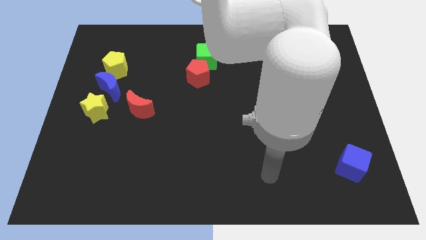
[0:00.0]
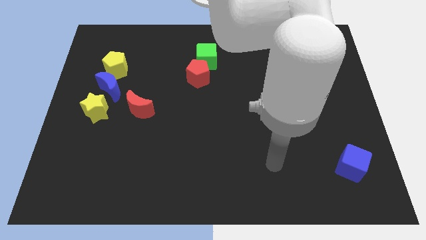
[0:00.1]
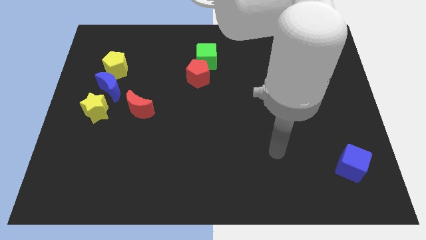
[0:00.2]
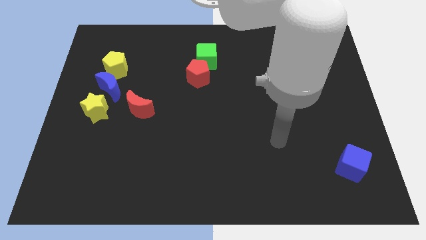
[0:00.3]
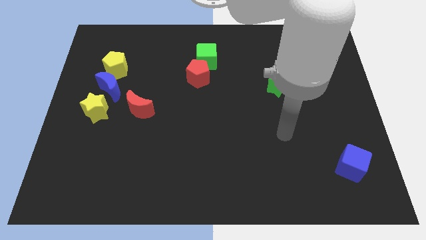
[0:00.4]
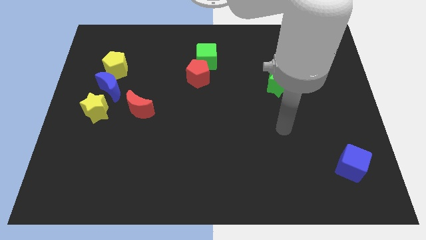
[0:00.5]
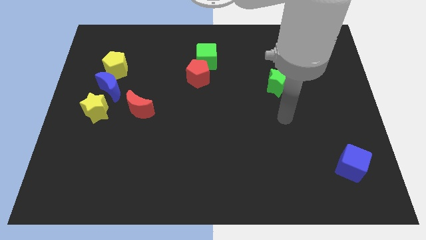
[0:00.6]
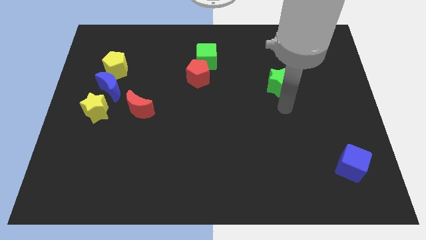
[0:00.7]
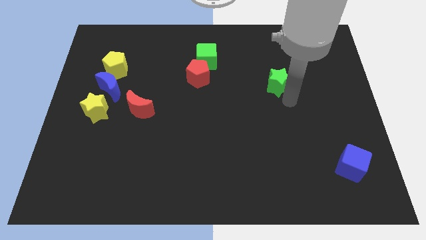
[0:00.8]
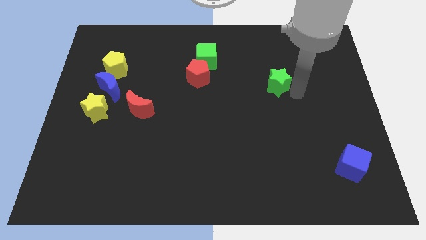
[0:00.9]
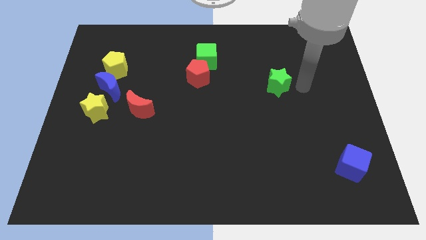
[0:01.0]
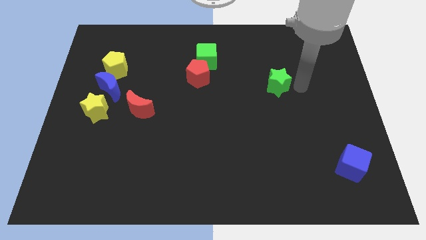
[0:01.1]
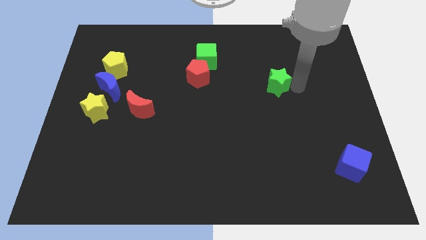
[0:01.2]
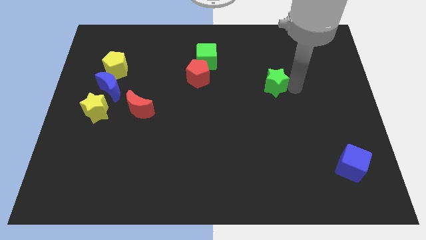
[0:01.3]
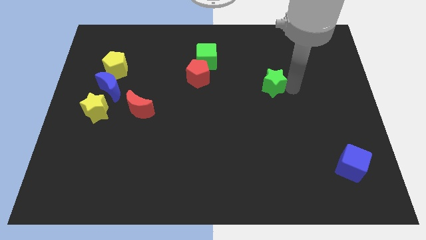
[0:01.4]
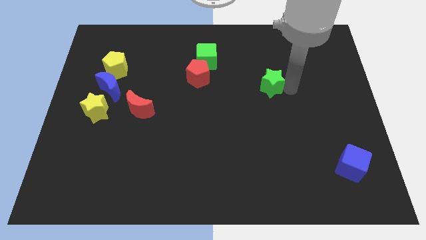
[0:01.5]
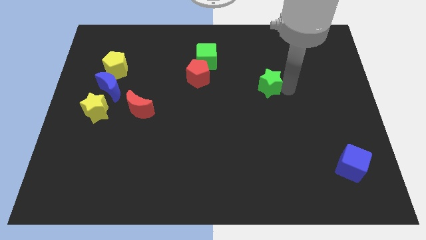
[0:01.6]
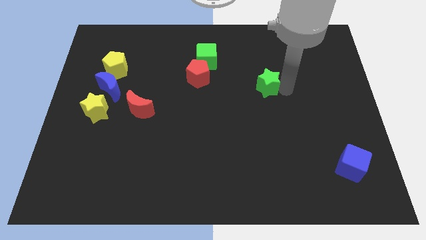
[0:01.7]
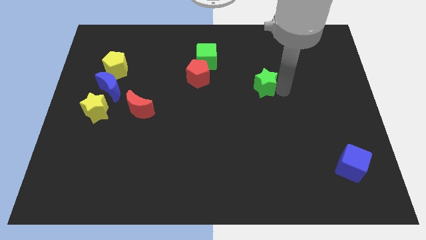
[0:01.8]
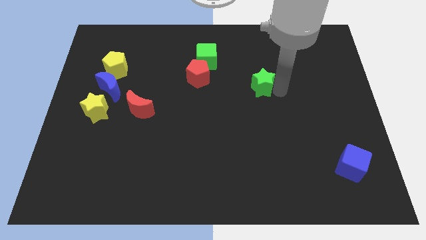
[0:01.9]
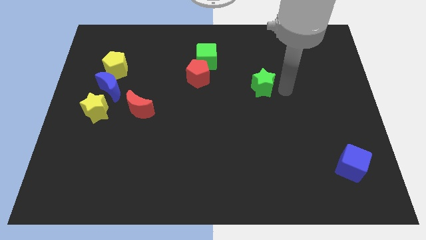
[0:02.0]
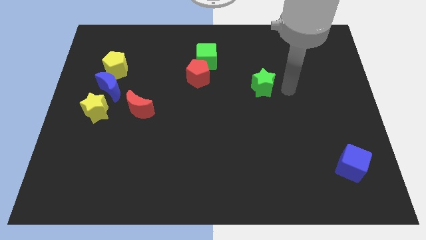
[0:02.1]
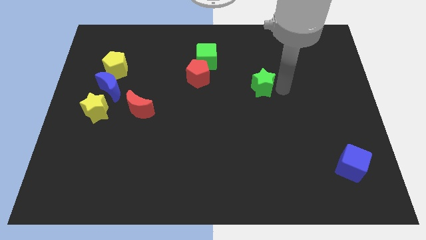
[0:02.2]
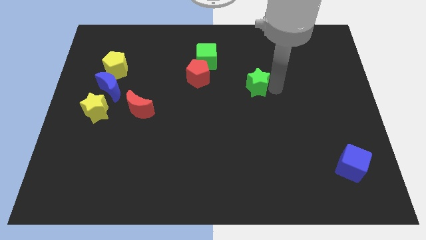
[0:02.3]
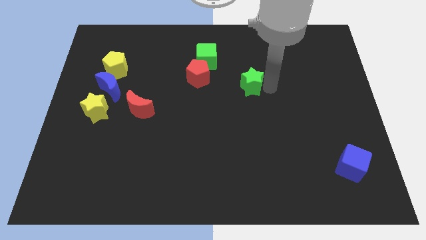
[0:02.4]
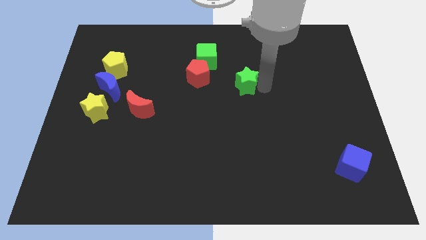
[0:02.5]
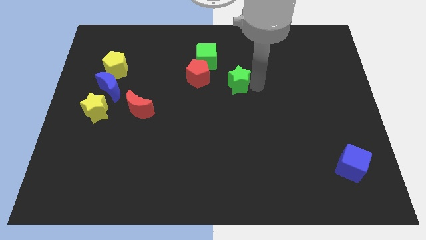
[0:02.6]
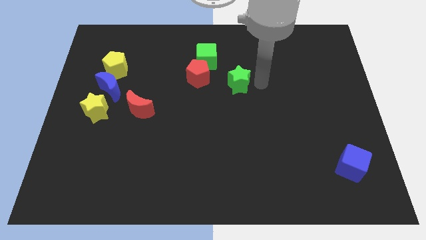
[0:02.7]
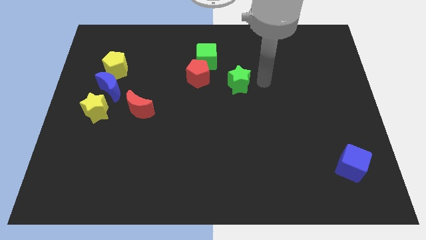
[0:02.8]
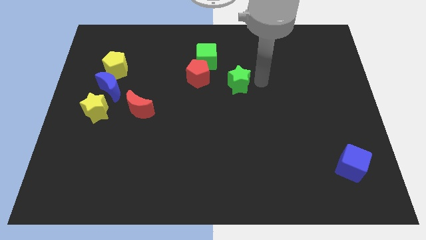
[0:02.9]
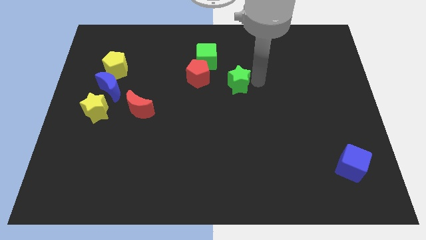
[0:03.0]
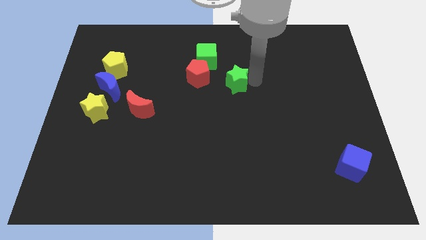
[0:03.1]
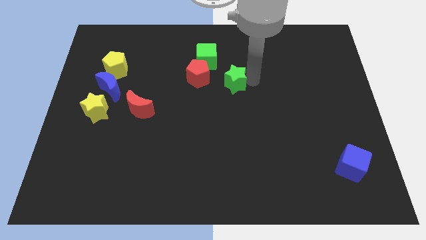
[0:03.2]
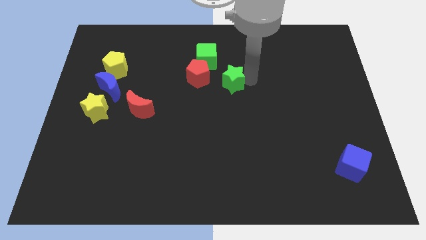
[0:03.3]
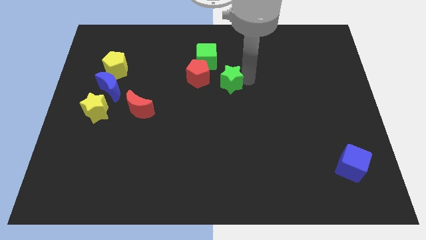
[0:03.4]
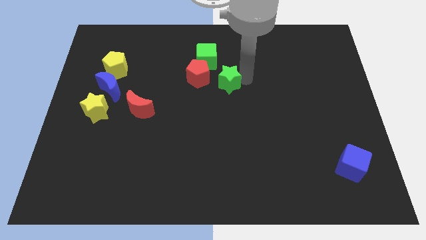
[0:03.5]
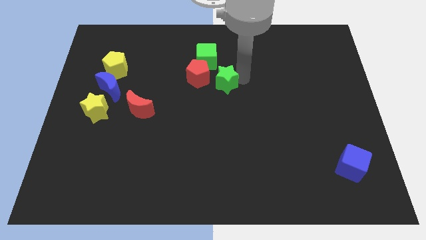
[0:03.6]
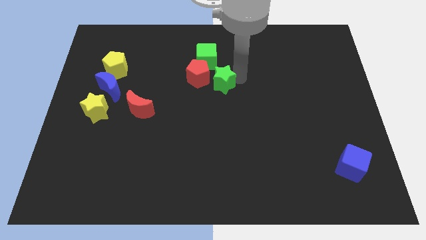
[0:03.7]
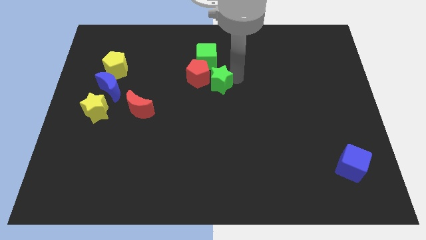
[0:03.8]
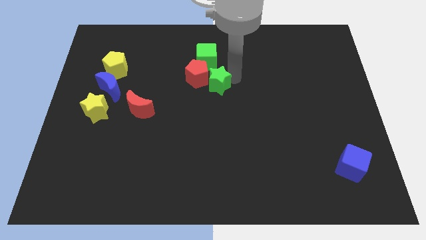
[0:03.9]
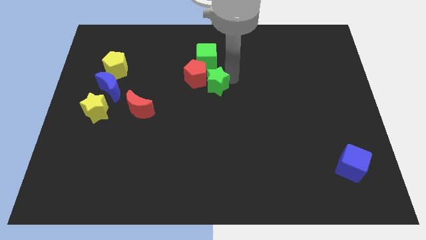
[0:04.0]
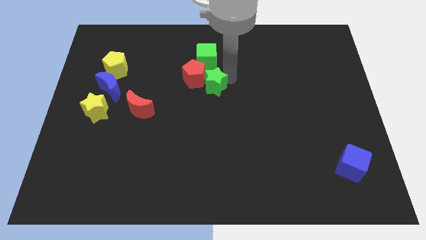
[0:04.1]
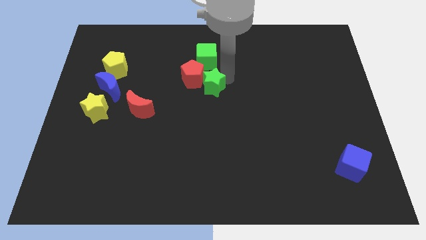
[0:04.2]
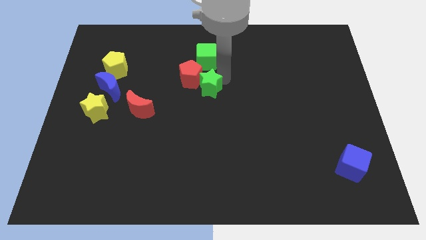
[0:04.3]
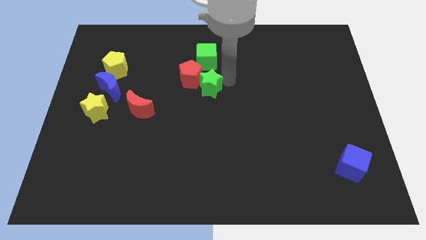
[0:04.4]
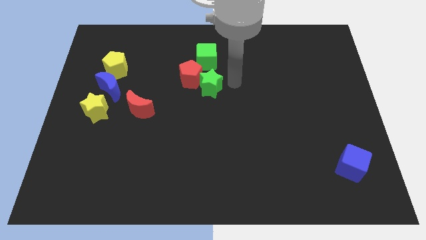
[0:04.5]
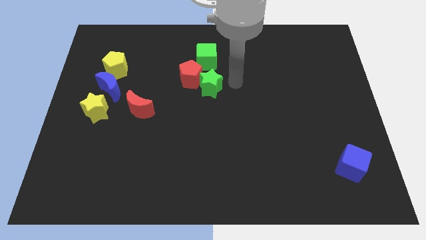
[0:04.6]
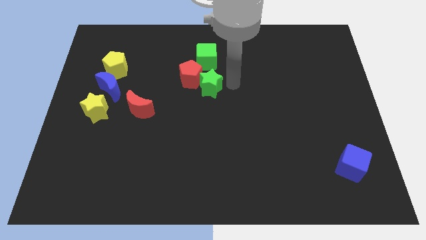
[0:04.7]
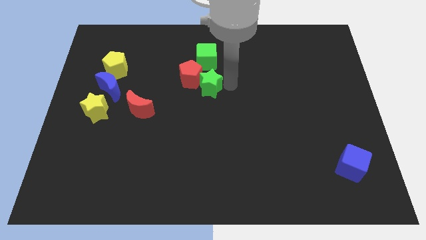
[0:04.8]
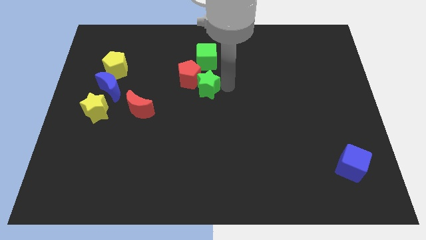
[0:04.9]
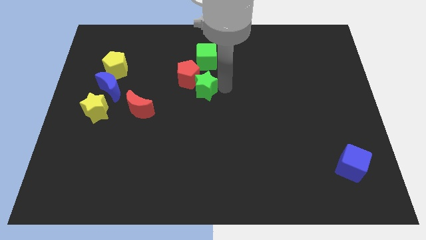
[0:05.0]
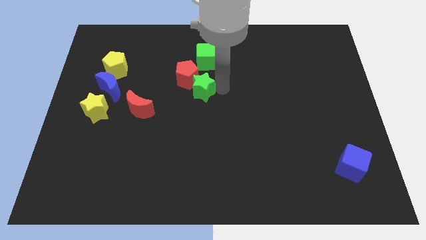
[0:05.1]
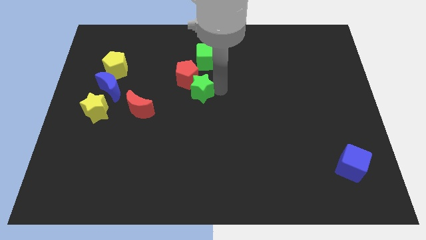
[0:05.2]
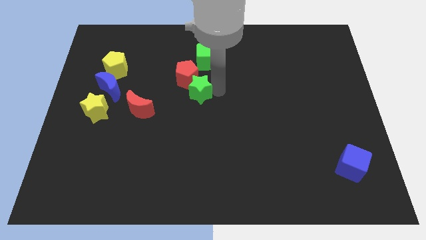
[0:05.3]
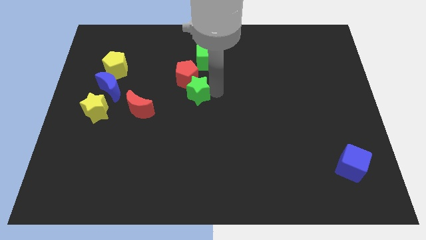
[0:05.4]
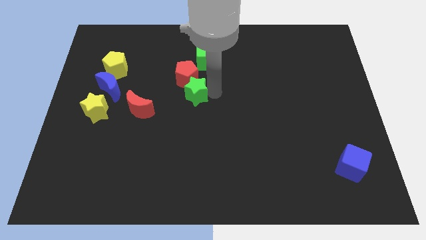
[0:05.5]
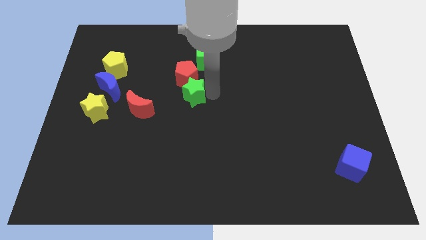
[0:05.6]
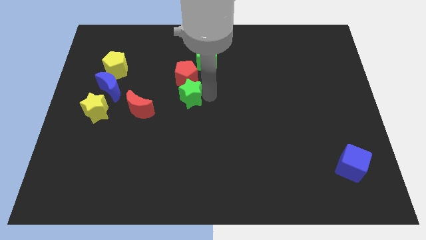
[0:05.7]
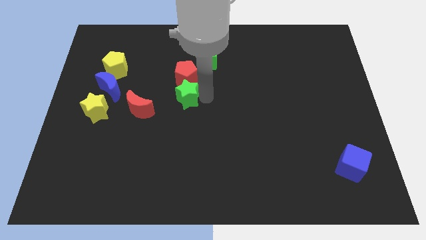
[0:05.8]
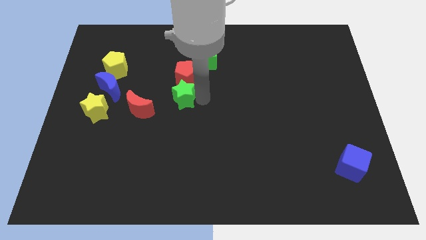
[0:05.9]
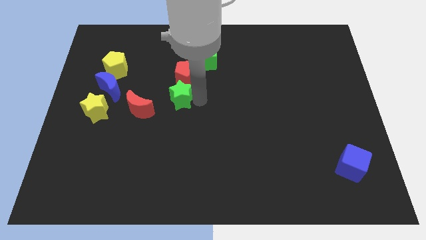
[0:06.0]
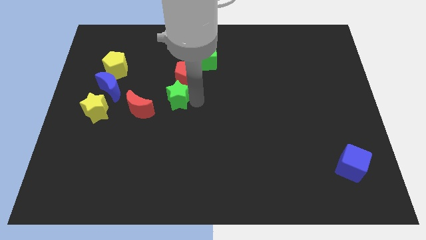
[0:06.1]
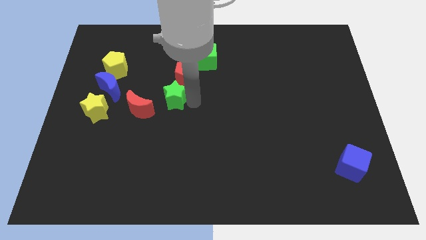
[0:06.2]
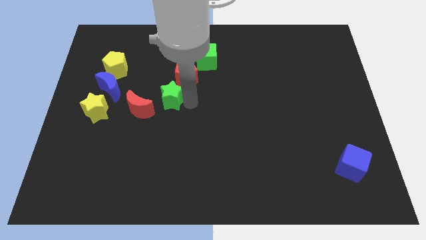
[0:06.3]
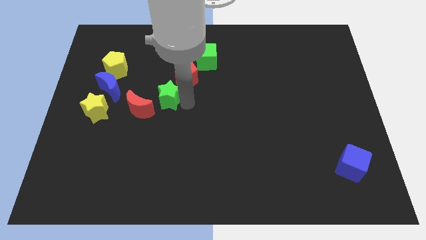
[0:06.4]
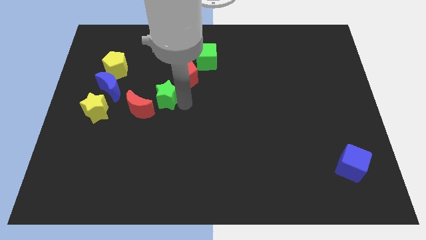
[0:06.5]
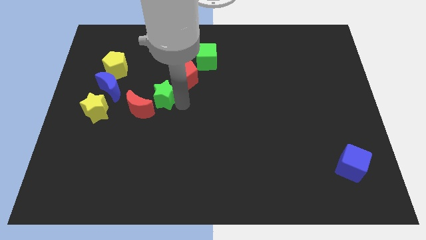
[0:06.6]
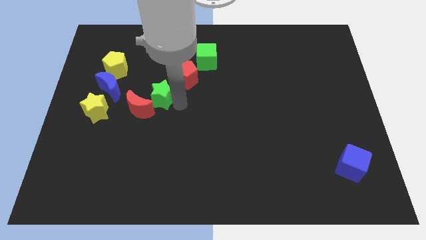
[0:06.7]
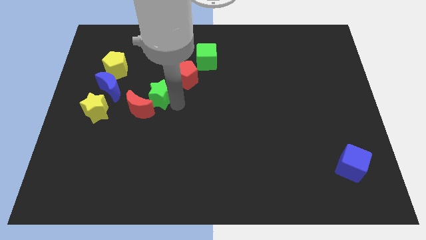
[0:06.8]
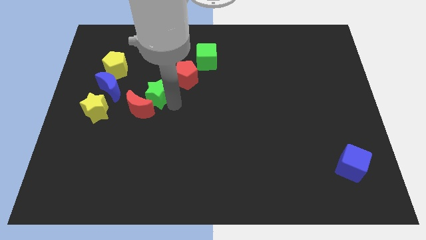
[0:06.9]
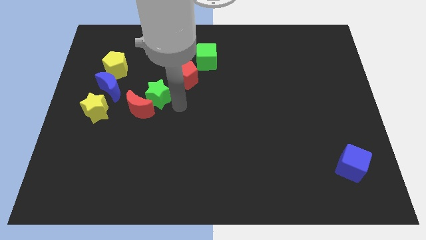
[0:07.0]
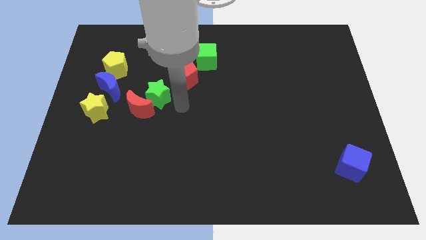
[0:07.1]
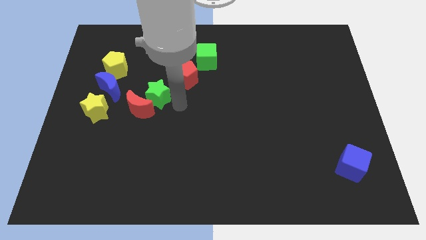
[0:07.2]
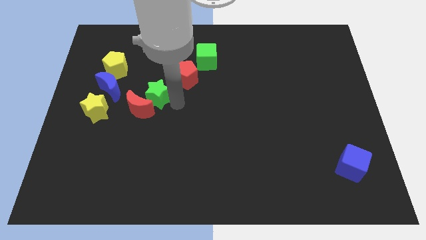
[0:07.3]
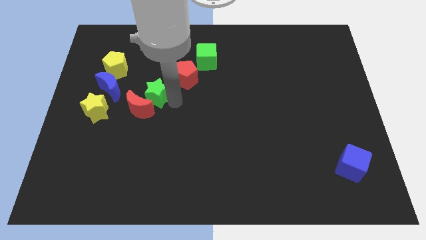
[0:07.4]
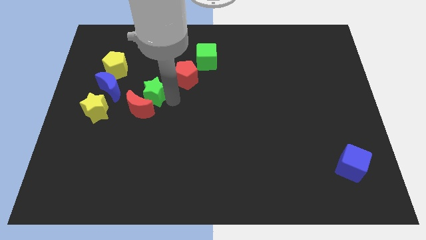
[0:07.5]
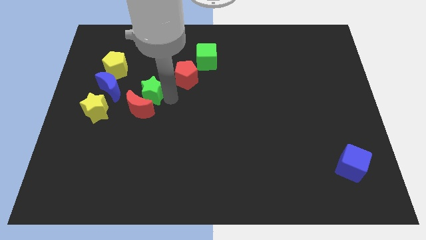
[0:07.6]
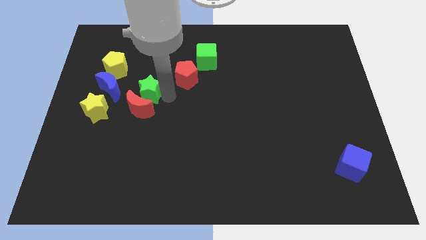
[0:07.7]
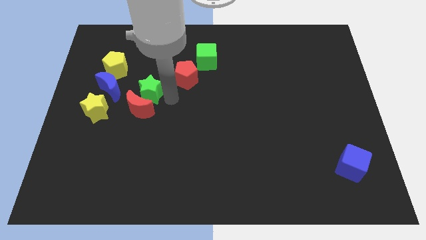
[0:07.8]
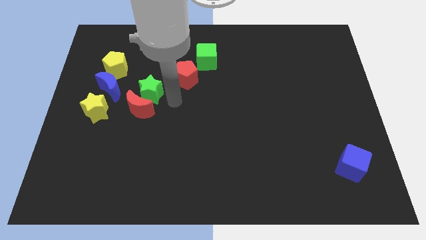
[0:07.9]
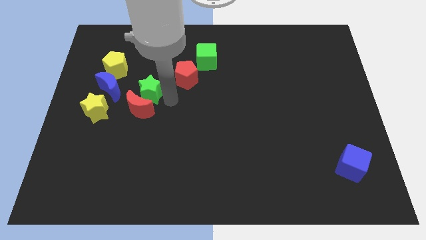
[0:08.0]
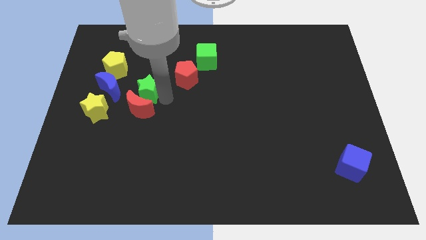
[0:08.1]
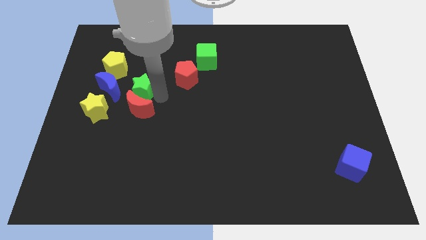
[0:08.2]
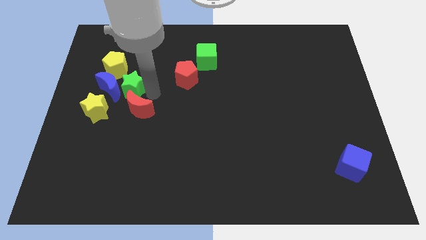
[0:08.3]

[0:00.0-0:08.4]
push the green star towards the blue moon
